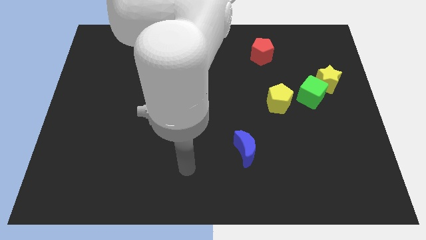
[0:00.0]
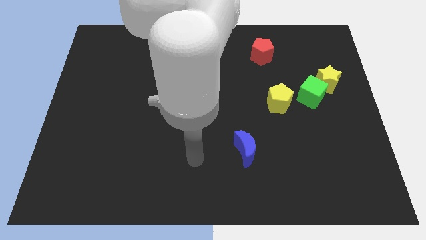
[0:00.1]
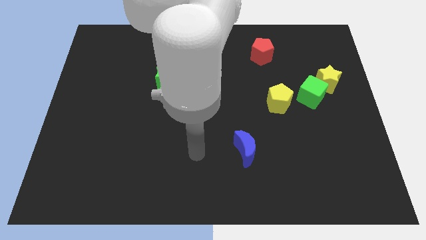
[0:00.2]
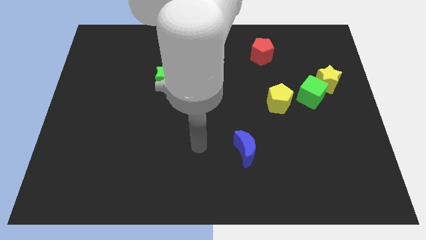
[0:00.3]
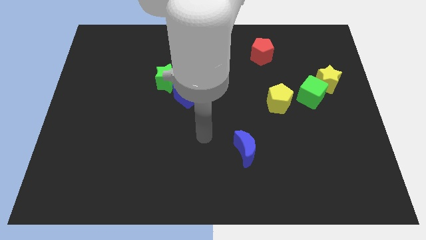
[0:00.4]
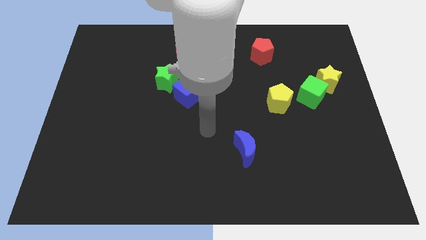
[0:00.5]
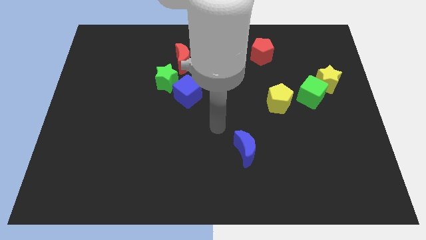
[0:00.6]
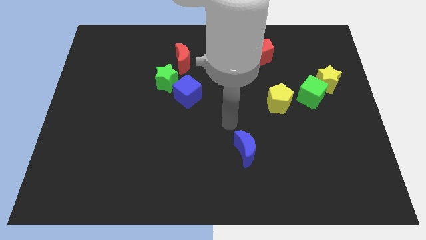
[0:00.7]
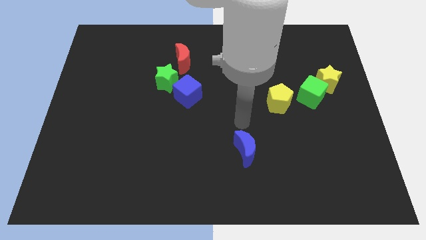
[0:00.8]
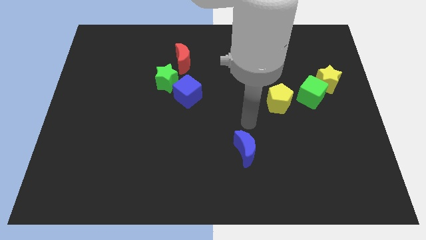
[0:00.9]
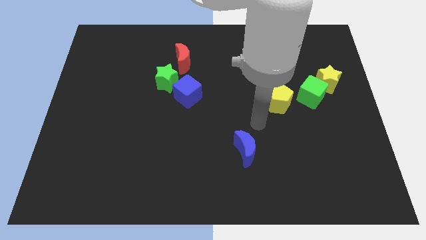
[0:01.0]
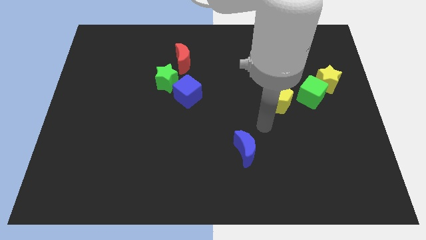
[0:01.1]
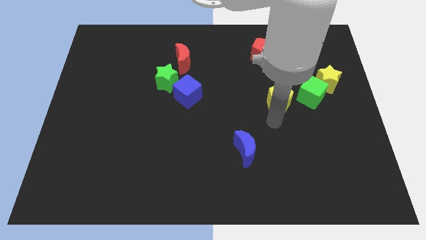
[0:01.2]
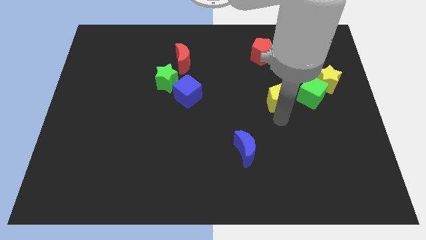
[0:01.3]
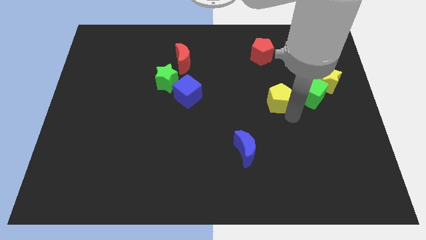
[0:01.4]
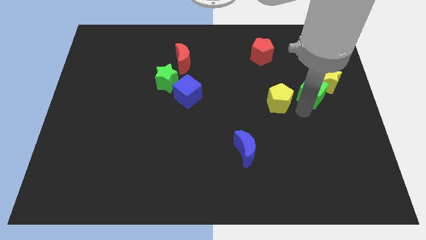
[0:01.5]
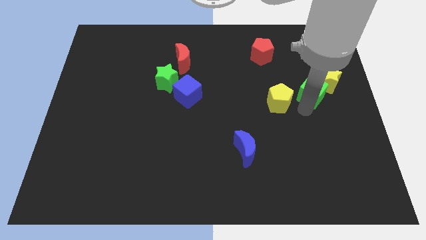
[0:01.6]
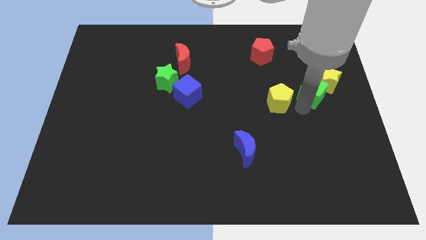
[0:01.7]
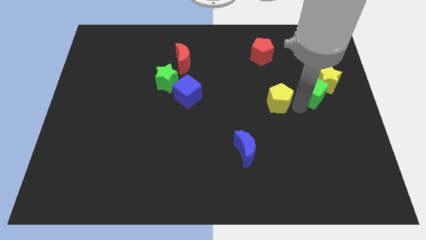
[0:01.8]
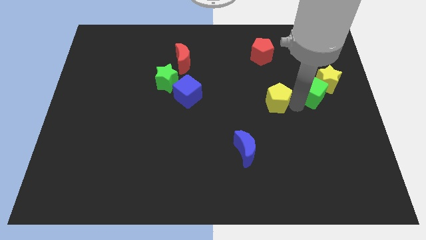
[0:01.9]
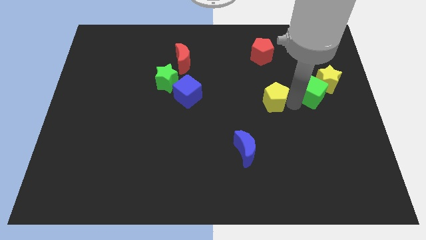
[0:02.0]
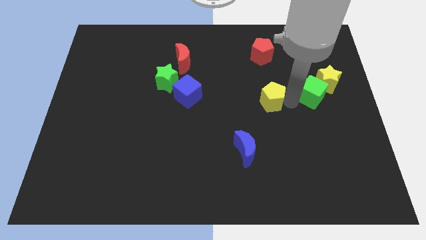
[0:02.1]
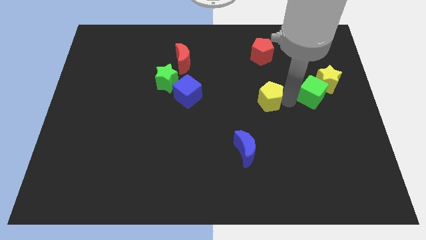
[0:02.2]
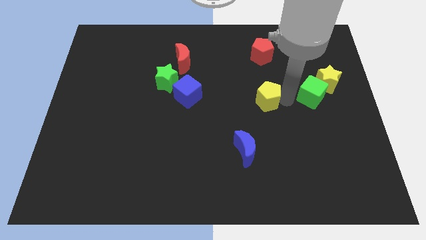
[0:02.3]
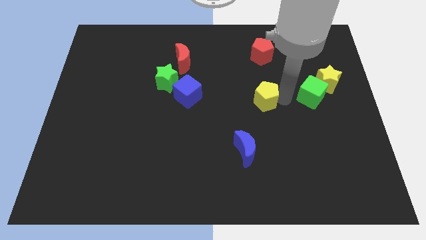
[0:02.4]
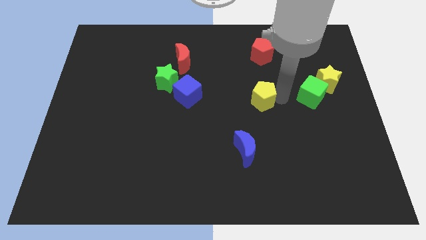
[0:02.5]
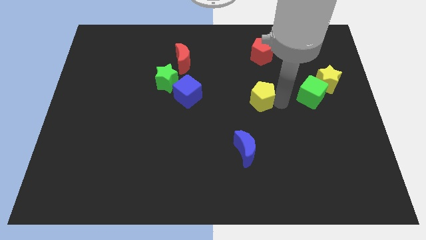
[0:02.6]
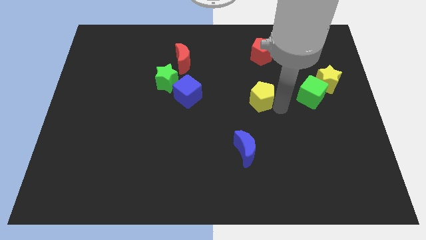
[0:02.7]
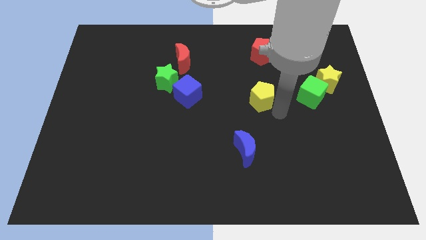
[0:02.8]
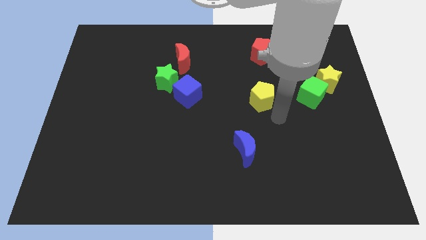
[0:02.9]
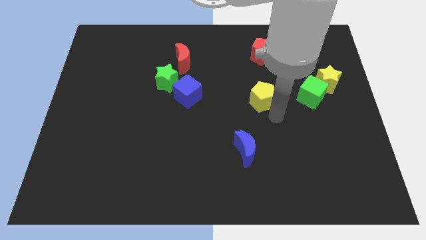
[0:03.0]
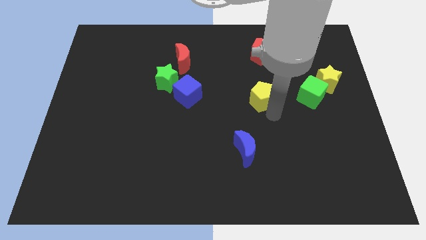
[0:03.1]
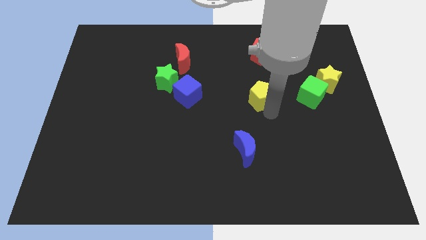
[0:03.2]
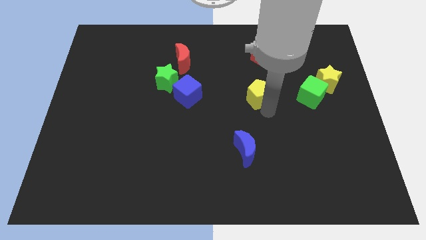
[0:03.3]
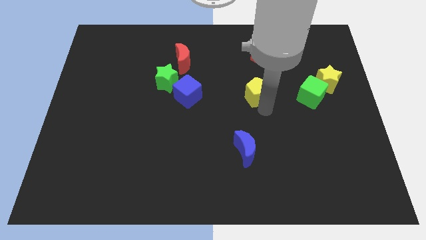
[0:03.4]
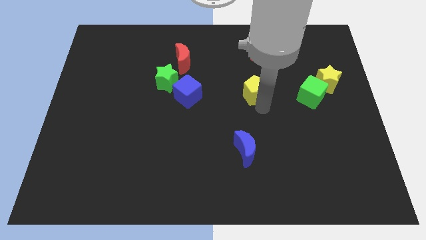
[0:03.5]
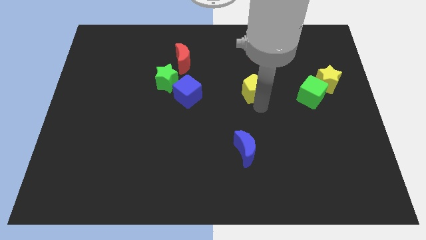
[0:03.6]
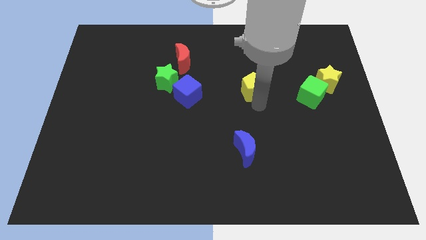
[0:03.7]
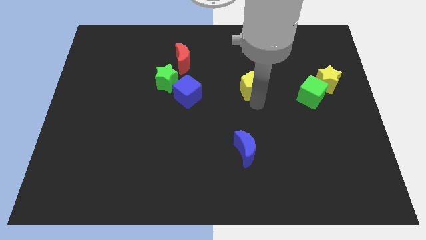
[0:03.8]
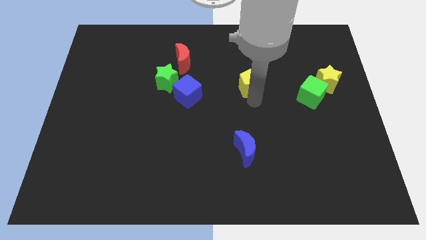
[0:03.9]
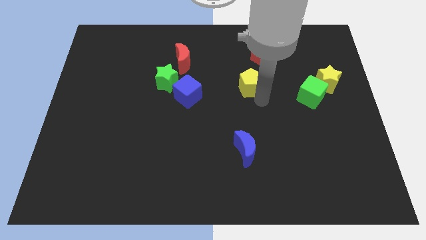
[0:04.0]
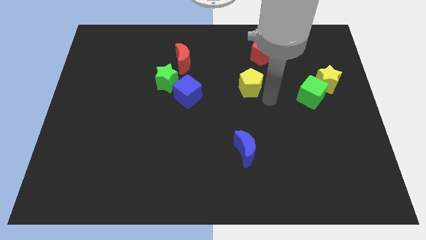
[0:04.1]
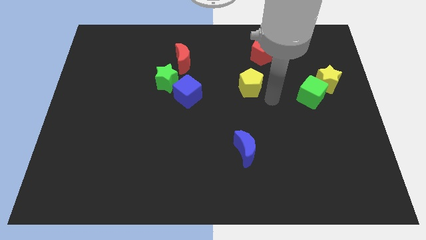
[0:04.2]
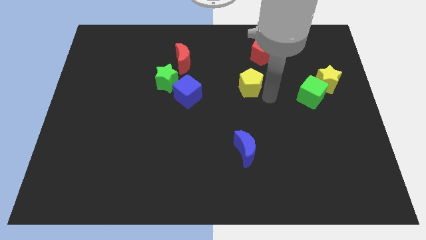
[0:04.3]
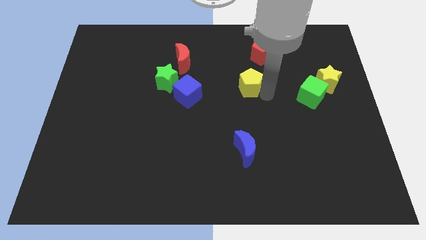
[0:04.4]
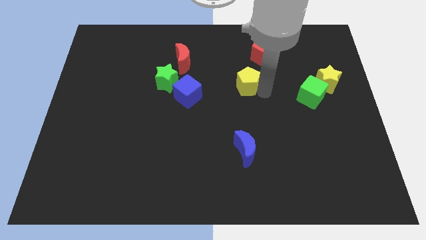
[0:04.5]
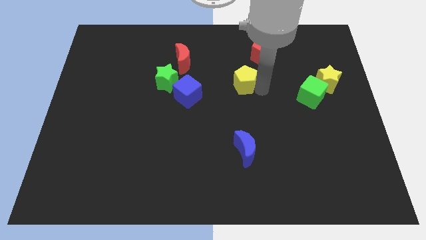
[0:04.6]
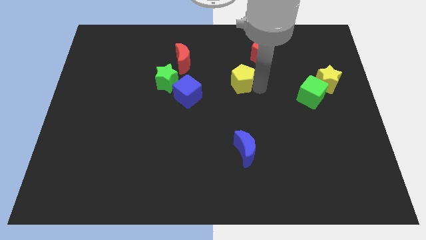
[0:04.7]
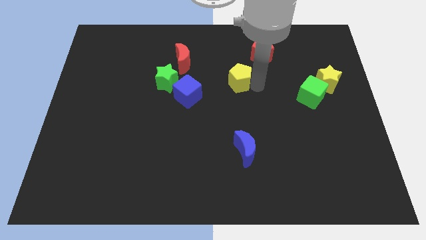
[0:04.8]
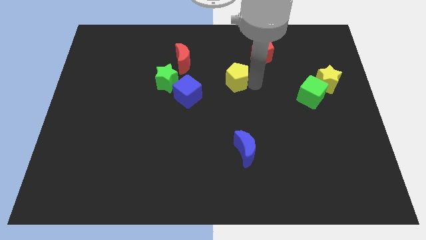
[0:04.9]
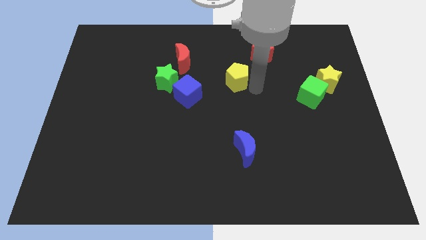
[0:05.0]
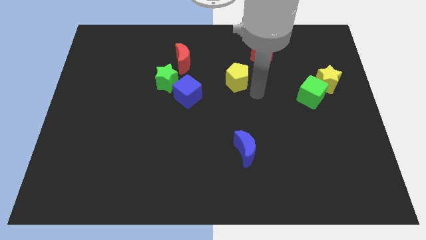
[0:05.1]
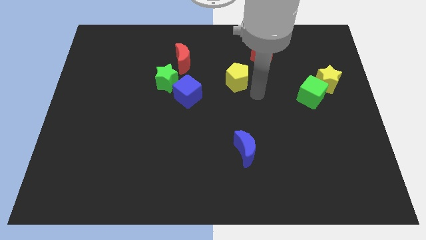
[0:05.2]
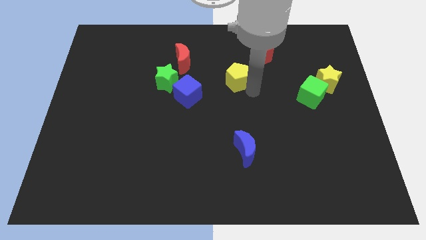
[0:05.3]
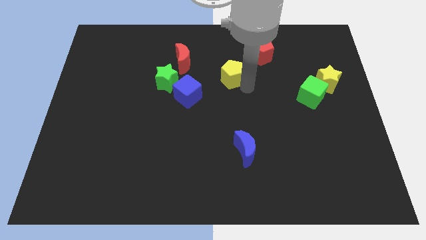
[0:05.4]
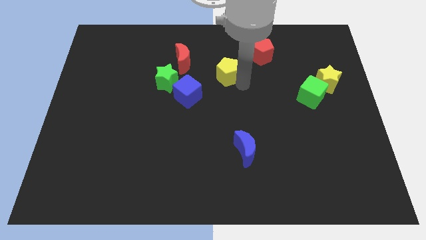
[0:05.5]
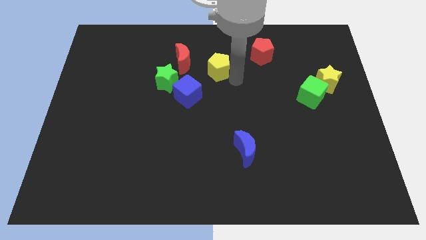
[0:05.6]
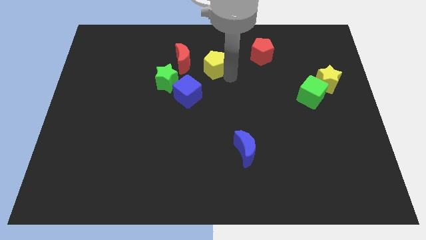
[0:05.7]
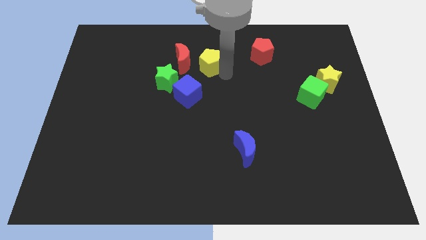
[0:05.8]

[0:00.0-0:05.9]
slide the yellow pentagon diagonally up and to the right of the green star

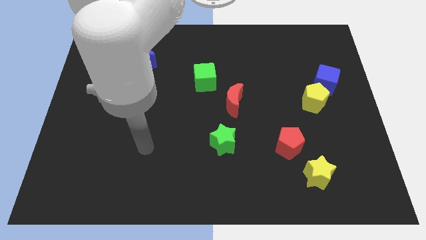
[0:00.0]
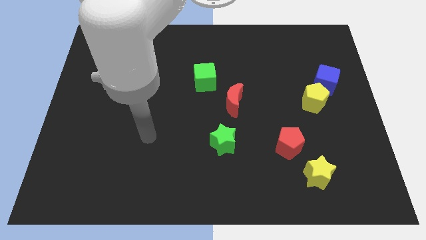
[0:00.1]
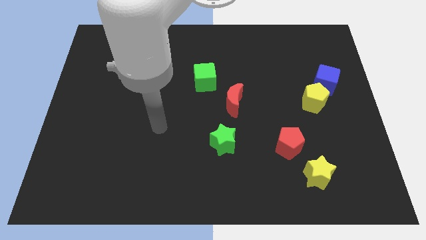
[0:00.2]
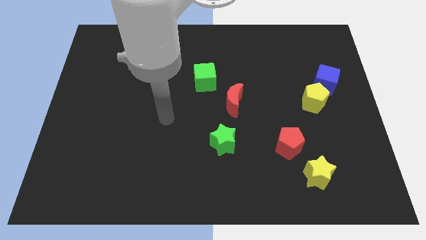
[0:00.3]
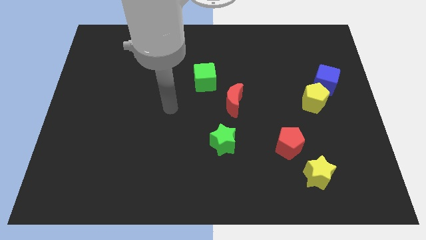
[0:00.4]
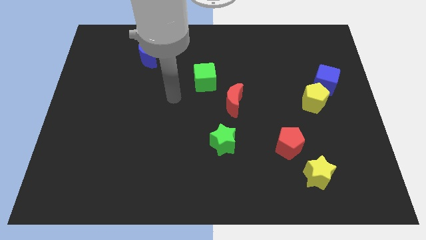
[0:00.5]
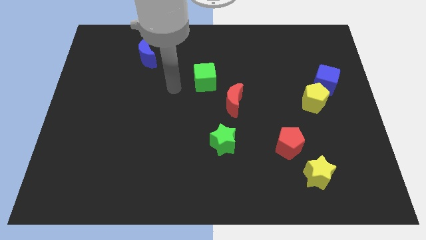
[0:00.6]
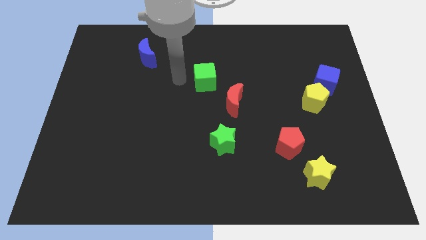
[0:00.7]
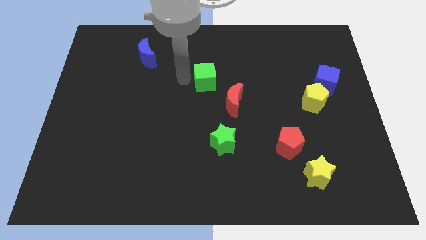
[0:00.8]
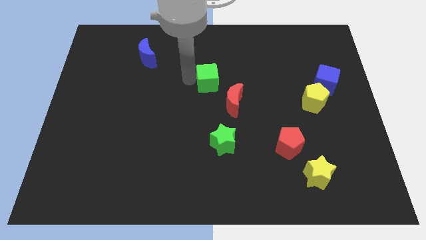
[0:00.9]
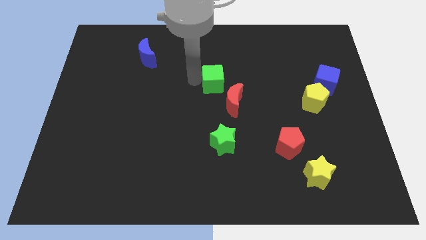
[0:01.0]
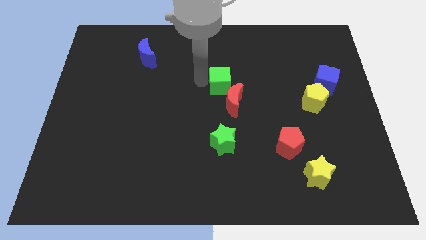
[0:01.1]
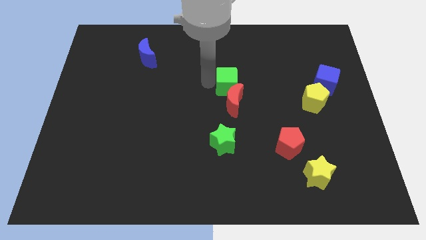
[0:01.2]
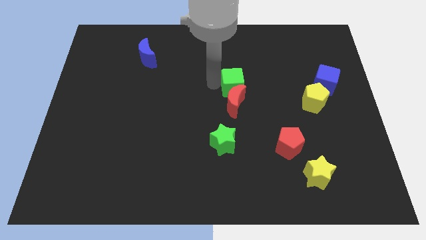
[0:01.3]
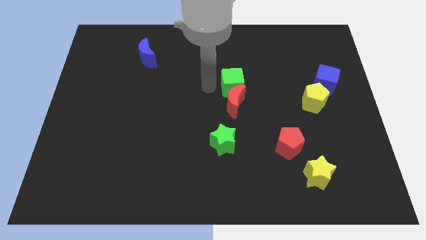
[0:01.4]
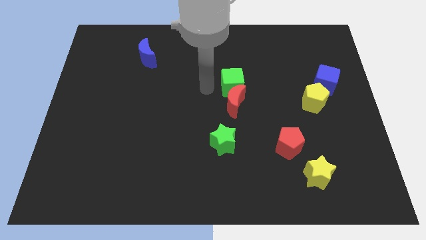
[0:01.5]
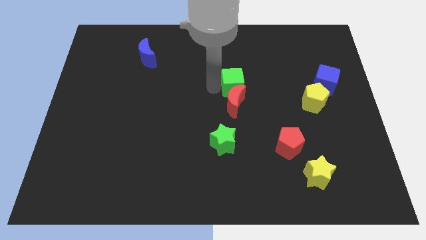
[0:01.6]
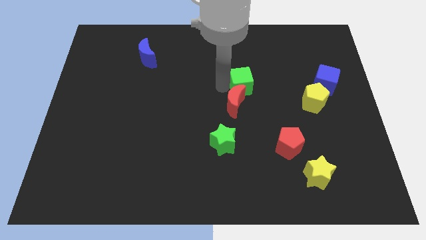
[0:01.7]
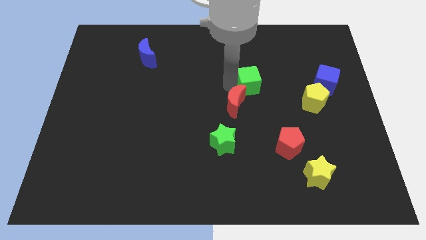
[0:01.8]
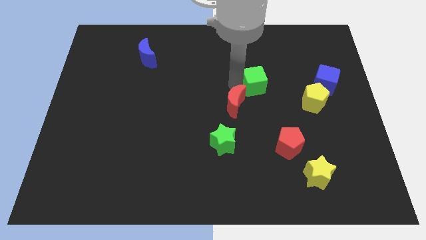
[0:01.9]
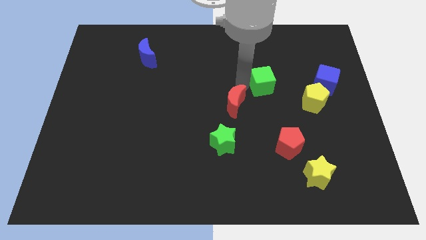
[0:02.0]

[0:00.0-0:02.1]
move the green cube to the left of the blue cube

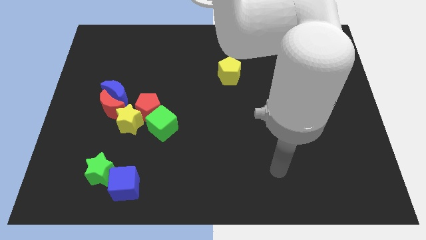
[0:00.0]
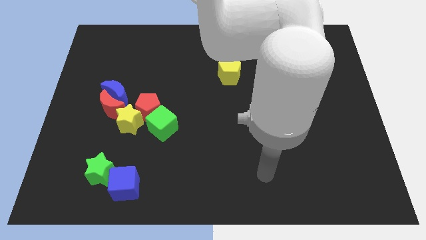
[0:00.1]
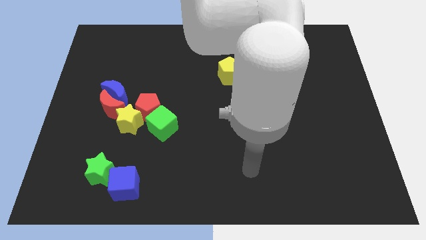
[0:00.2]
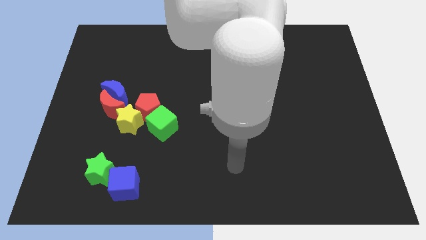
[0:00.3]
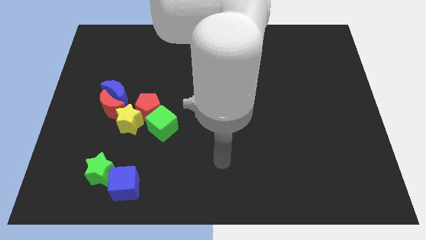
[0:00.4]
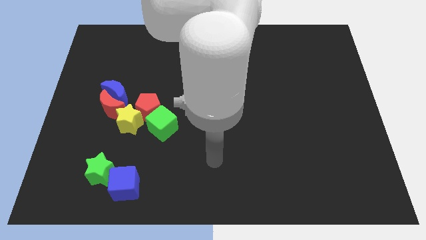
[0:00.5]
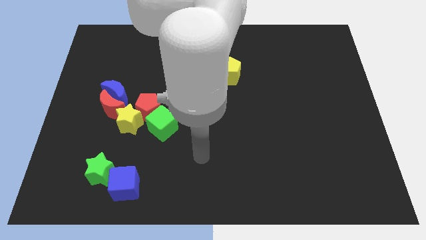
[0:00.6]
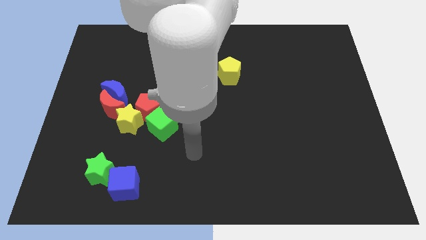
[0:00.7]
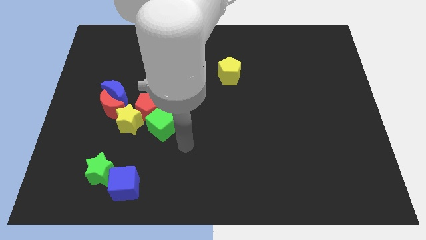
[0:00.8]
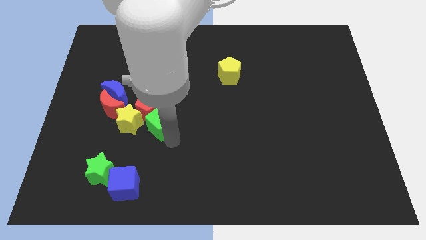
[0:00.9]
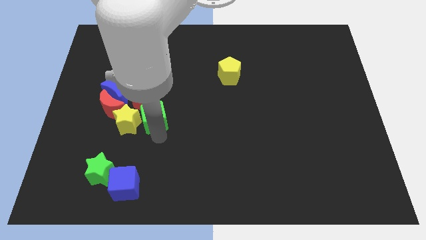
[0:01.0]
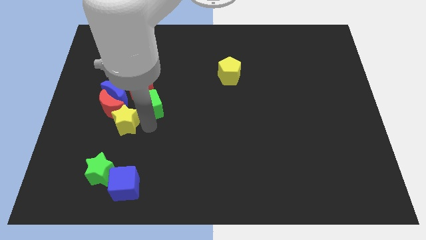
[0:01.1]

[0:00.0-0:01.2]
push the red pentagon to the top right of the blue moon
